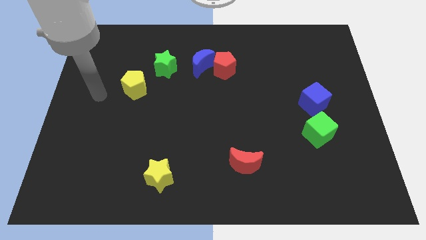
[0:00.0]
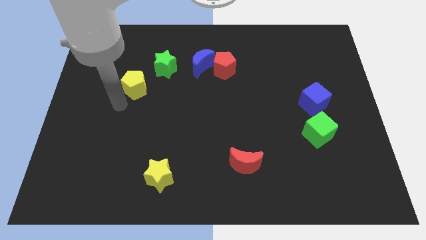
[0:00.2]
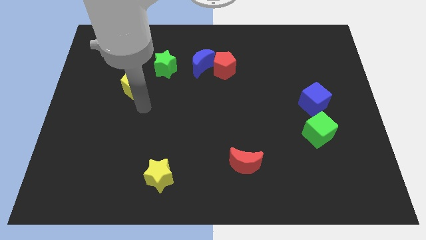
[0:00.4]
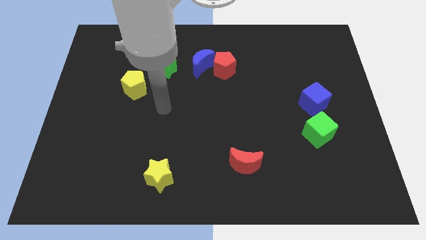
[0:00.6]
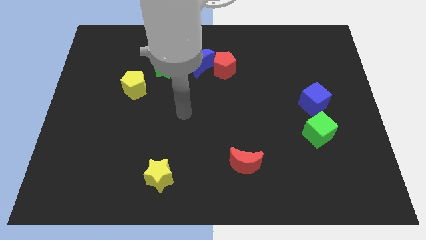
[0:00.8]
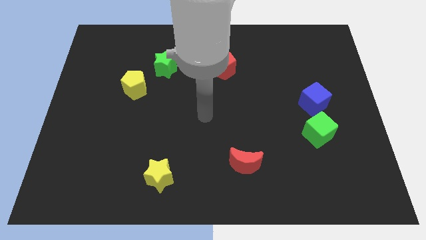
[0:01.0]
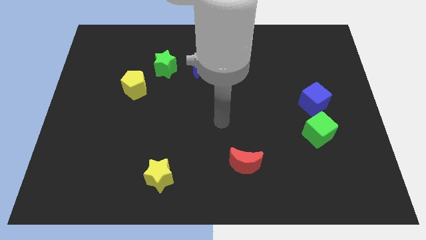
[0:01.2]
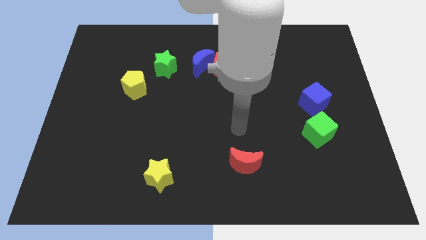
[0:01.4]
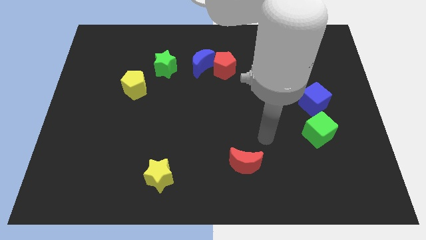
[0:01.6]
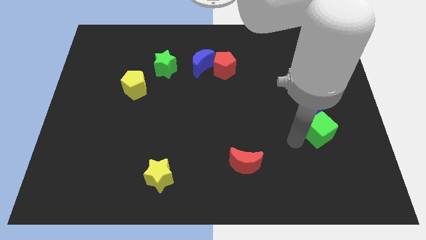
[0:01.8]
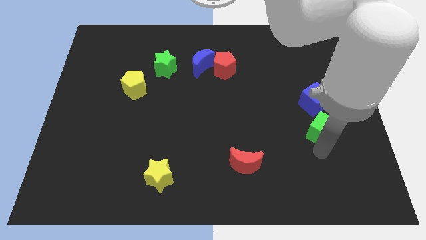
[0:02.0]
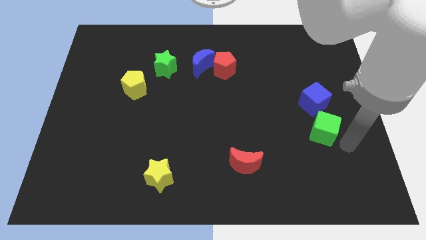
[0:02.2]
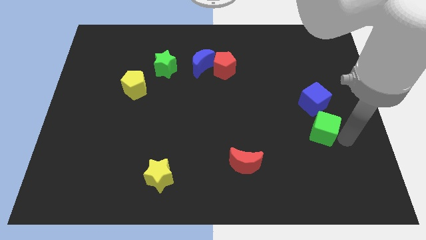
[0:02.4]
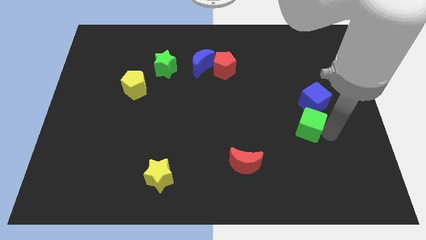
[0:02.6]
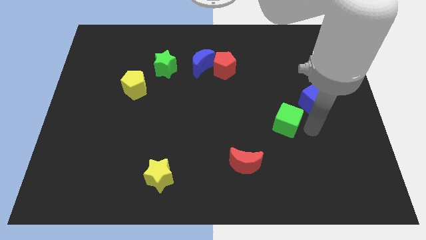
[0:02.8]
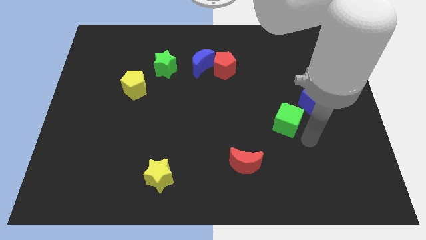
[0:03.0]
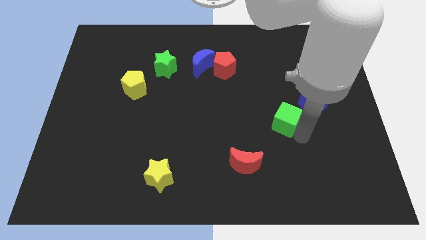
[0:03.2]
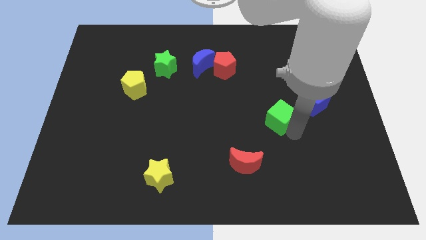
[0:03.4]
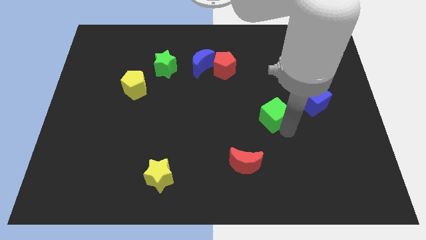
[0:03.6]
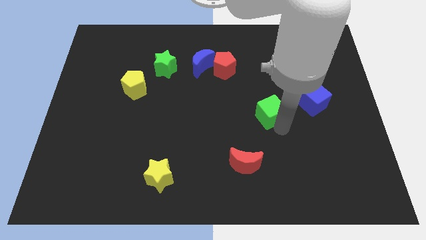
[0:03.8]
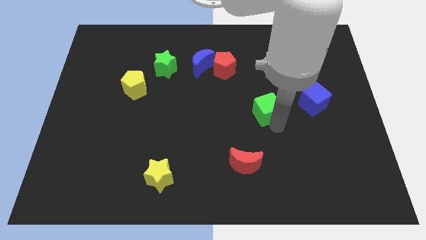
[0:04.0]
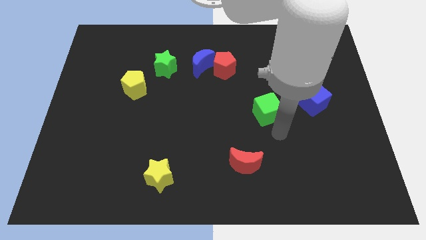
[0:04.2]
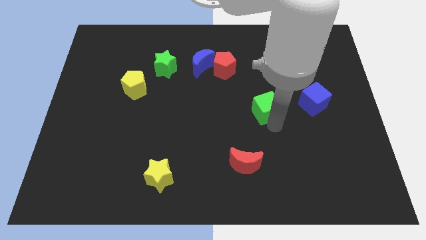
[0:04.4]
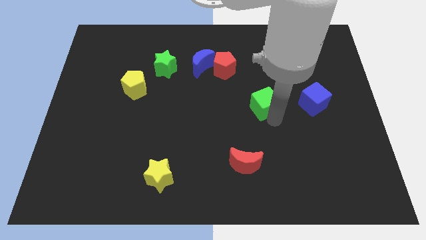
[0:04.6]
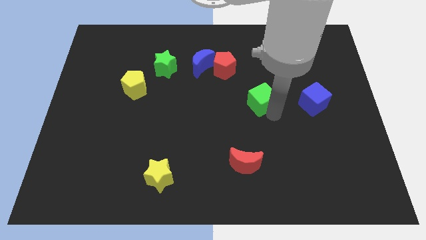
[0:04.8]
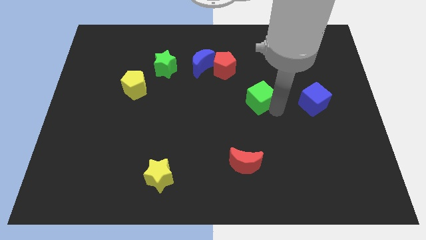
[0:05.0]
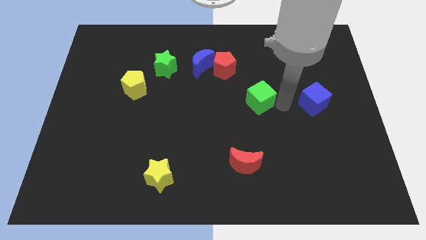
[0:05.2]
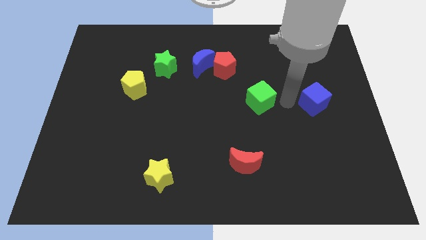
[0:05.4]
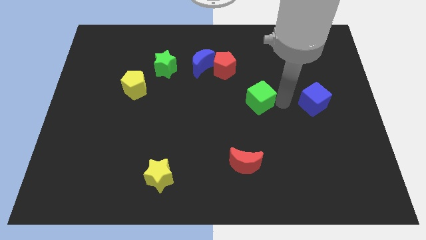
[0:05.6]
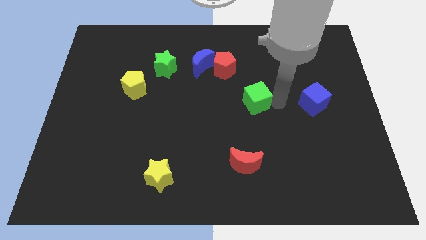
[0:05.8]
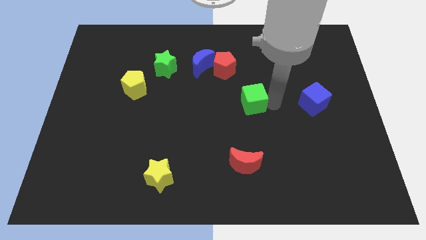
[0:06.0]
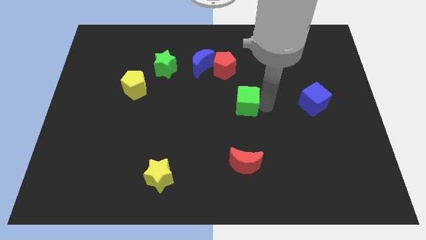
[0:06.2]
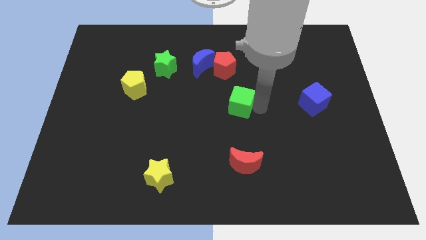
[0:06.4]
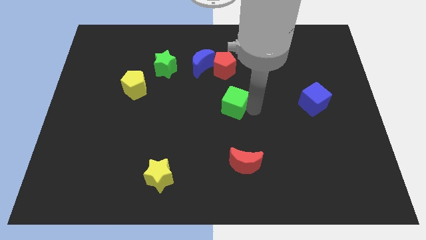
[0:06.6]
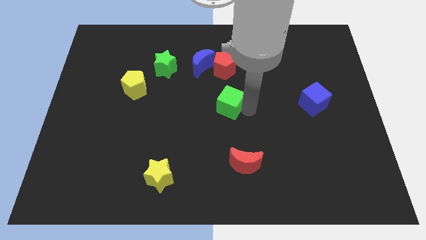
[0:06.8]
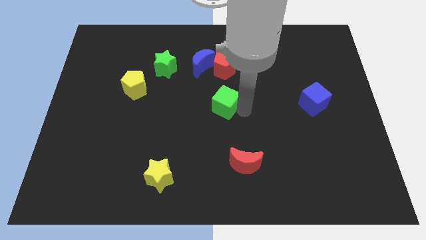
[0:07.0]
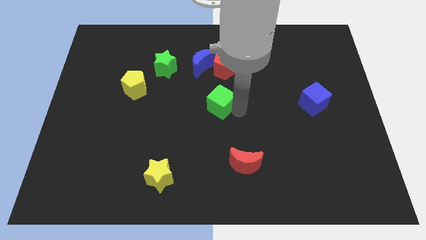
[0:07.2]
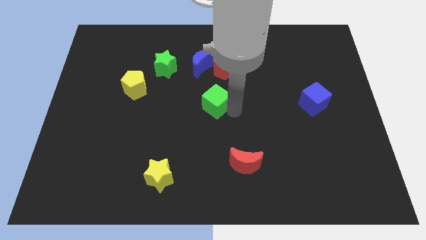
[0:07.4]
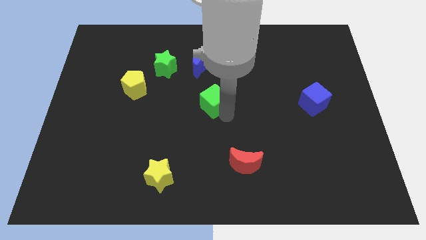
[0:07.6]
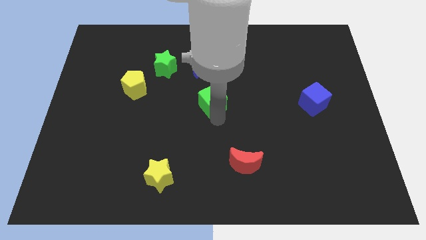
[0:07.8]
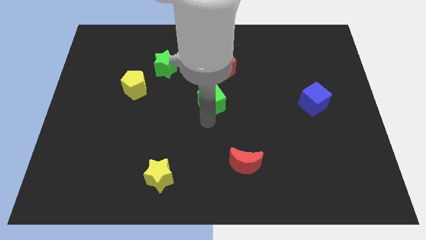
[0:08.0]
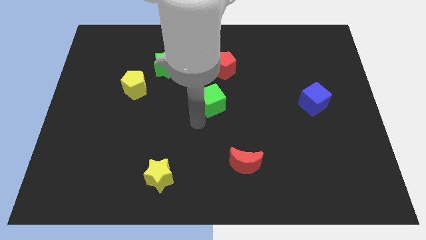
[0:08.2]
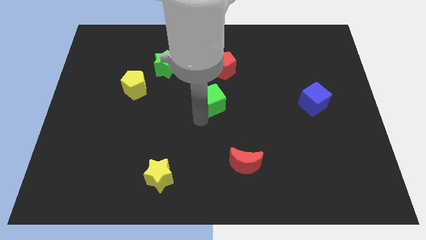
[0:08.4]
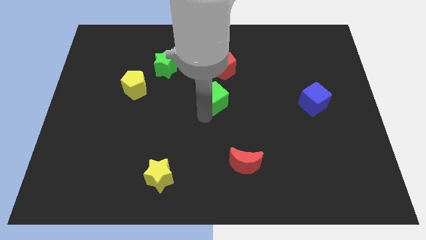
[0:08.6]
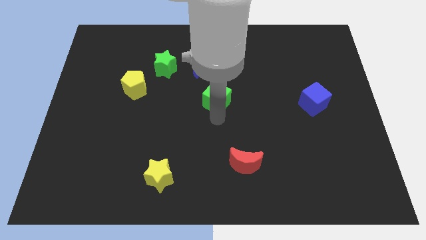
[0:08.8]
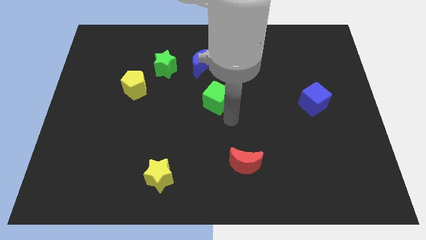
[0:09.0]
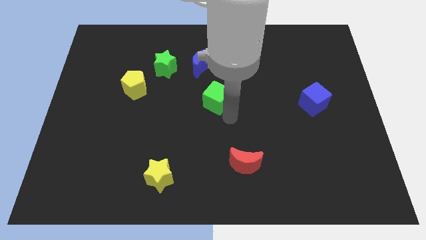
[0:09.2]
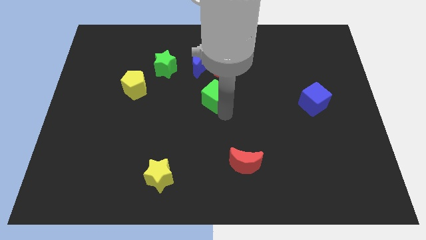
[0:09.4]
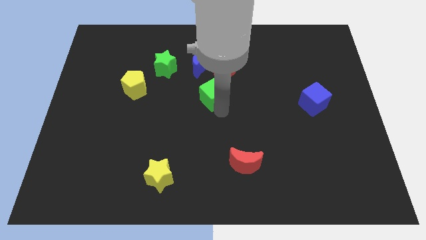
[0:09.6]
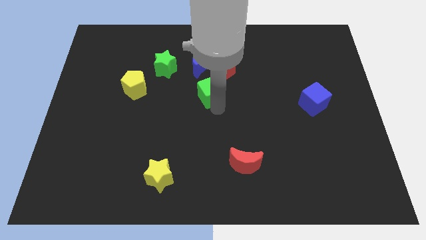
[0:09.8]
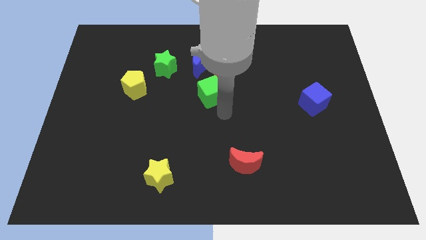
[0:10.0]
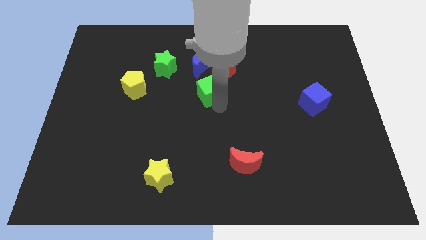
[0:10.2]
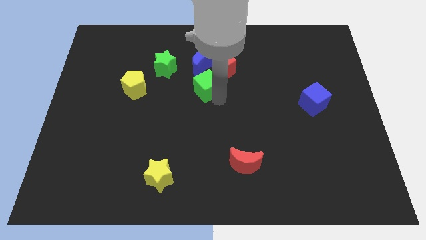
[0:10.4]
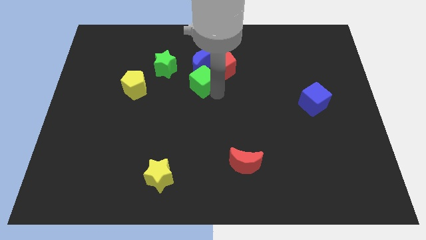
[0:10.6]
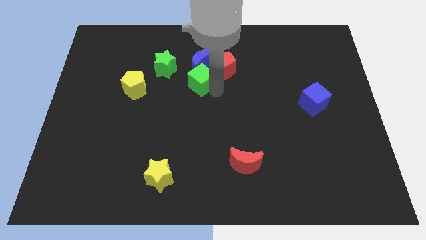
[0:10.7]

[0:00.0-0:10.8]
push the green cube left of the red pentagon

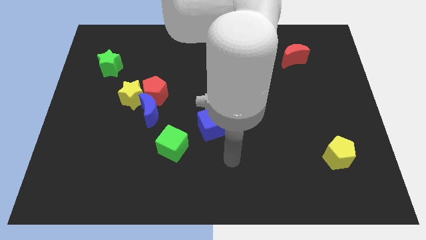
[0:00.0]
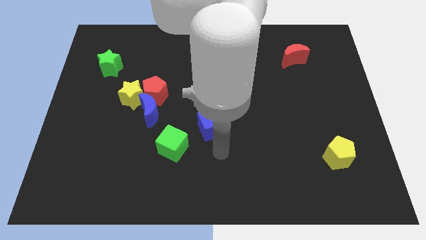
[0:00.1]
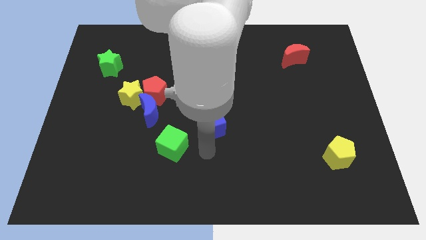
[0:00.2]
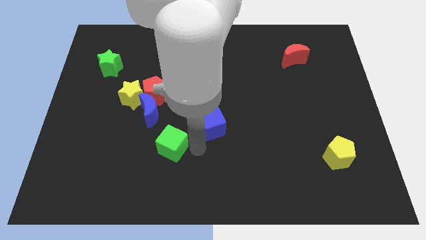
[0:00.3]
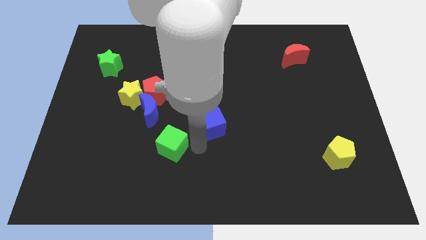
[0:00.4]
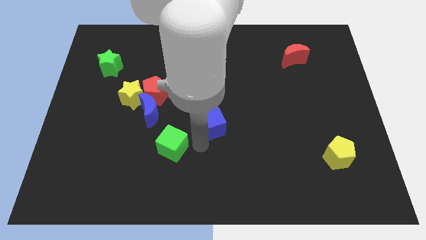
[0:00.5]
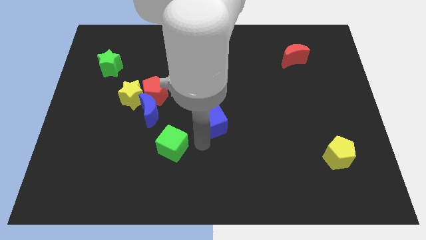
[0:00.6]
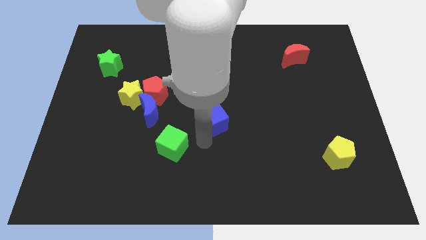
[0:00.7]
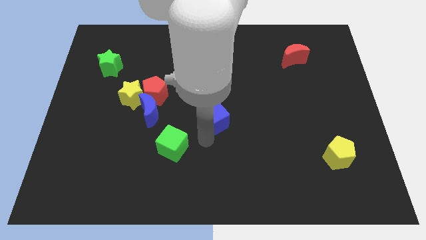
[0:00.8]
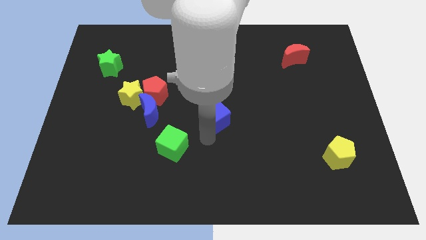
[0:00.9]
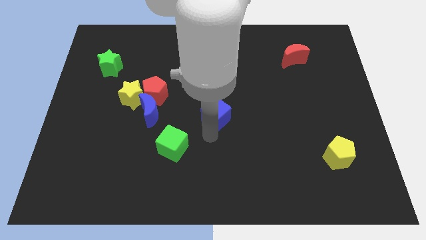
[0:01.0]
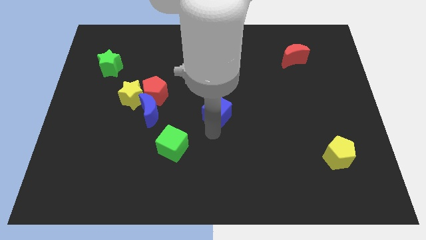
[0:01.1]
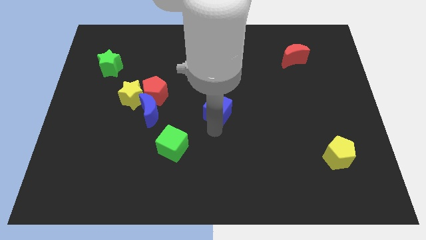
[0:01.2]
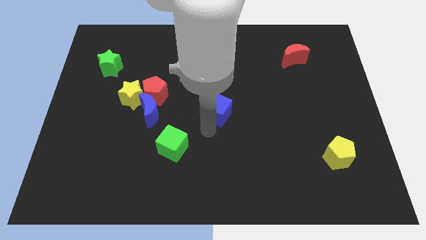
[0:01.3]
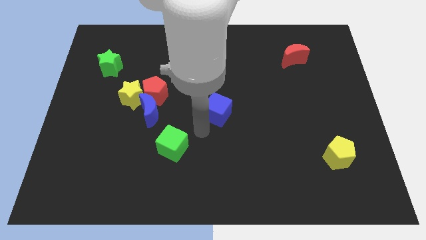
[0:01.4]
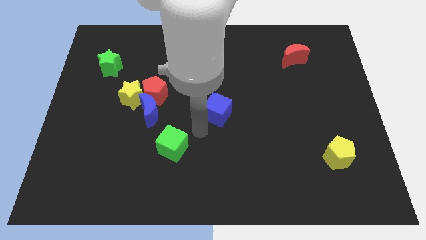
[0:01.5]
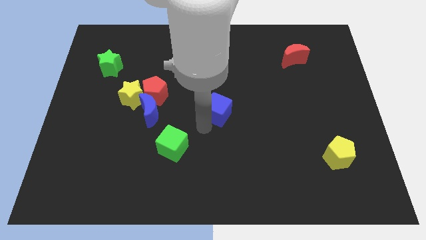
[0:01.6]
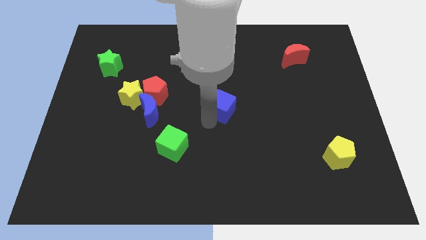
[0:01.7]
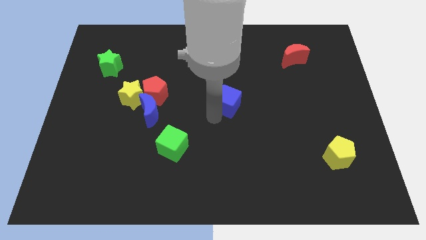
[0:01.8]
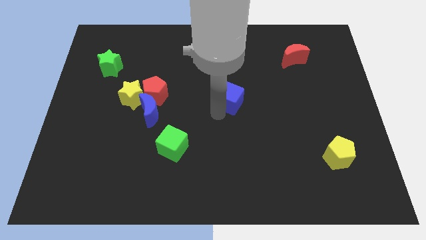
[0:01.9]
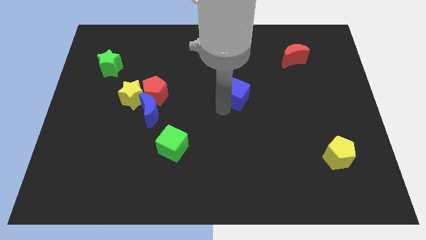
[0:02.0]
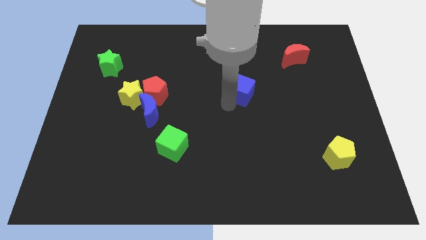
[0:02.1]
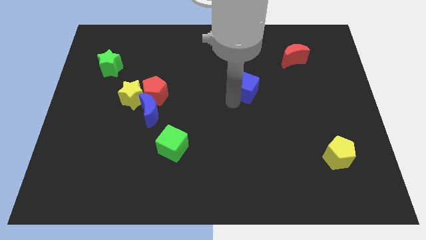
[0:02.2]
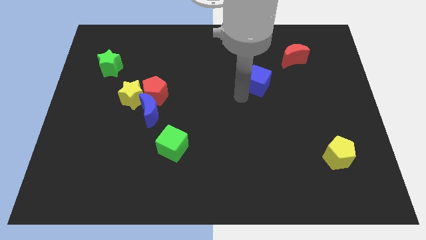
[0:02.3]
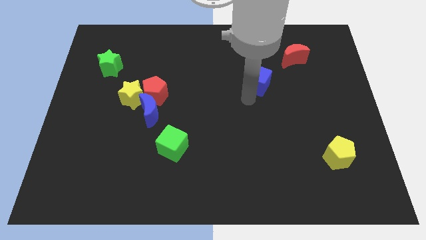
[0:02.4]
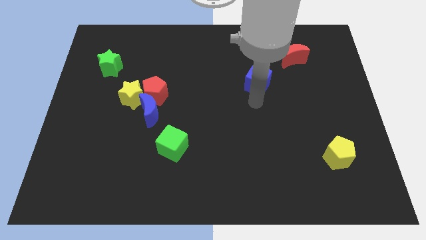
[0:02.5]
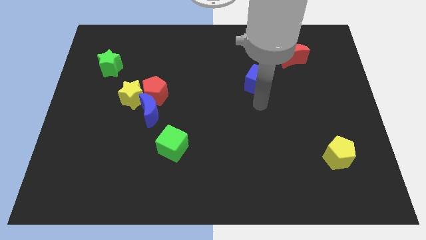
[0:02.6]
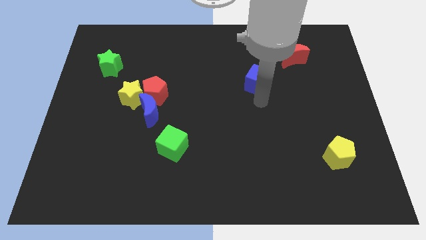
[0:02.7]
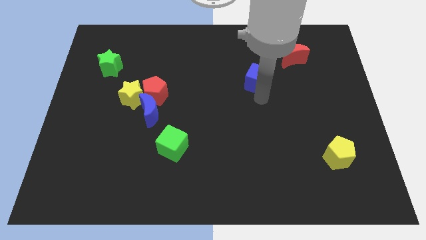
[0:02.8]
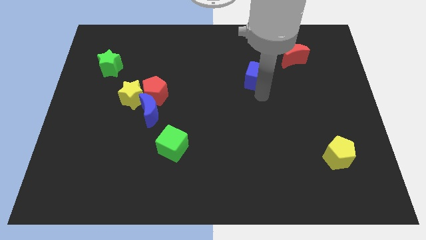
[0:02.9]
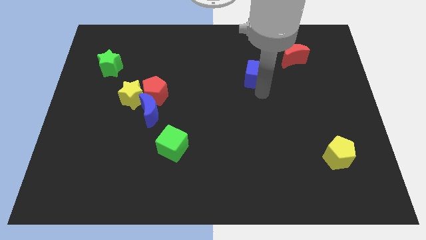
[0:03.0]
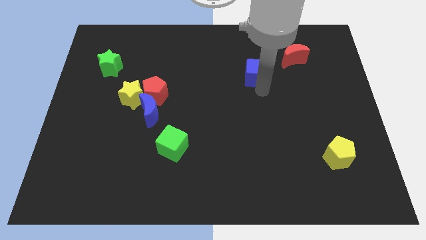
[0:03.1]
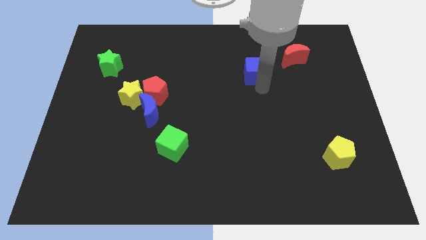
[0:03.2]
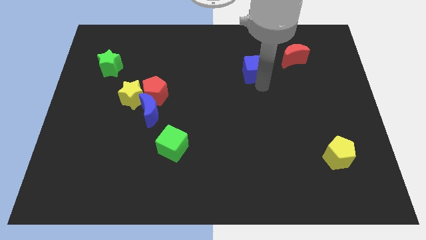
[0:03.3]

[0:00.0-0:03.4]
push the blue cube to the left of the red moon
